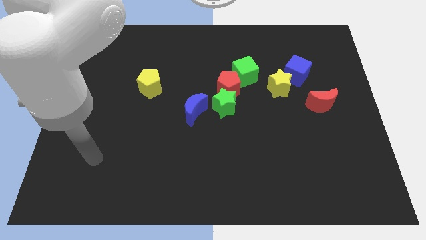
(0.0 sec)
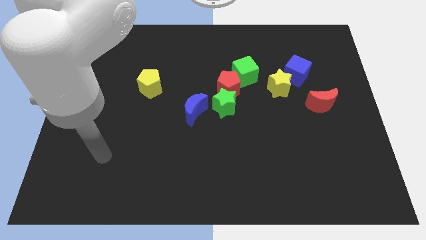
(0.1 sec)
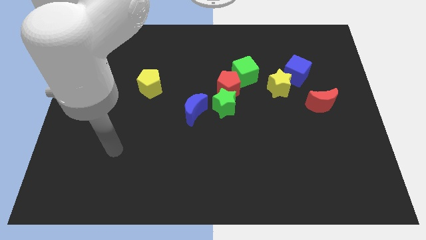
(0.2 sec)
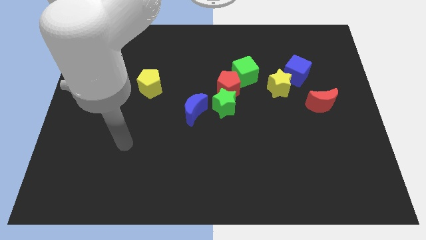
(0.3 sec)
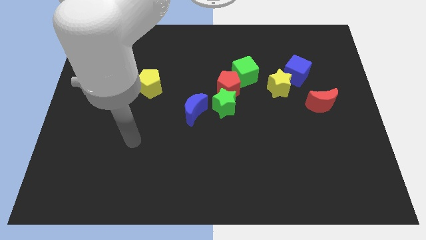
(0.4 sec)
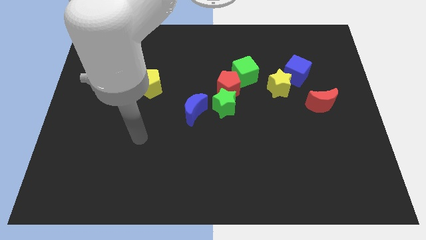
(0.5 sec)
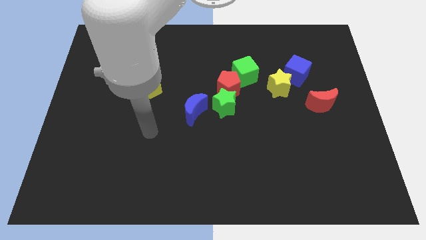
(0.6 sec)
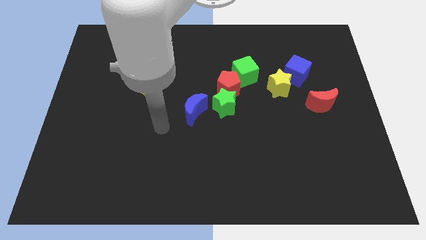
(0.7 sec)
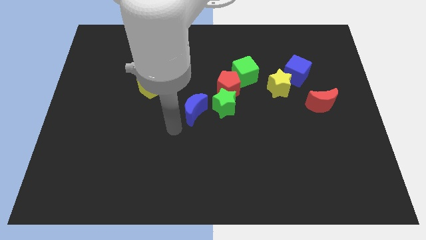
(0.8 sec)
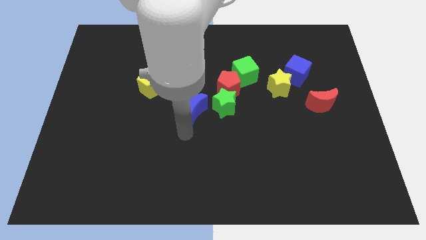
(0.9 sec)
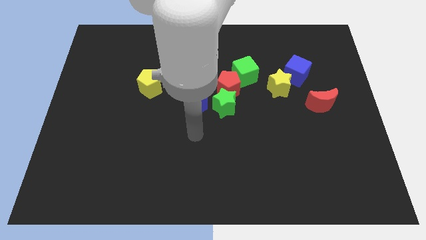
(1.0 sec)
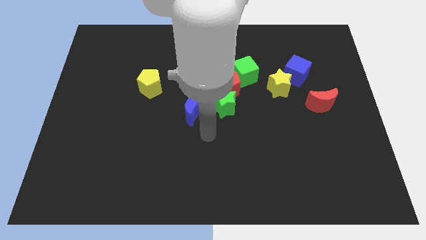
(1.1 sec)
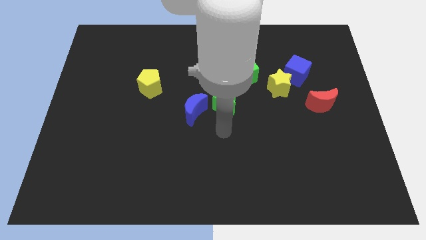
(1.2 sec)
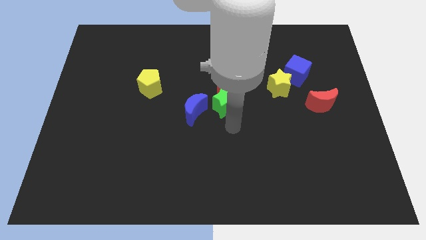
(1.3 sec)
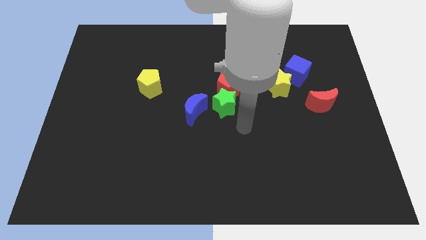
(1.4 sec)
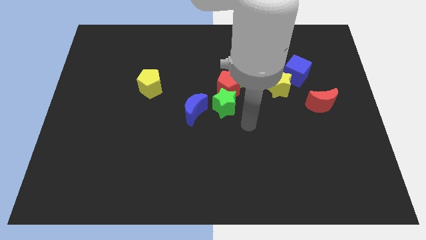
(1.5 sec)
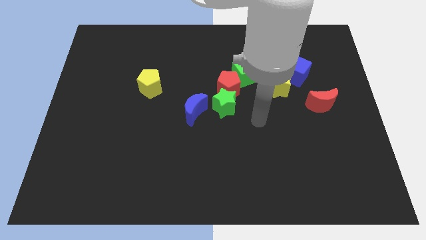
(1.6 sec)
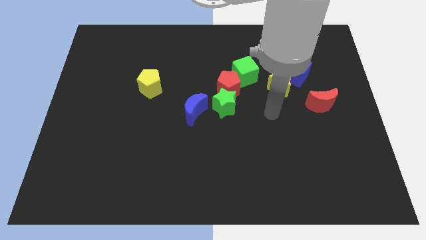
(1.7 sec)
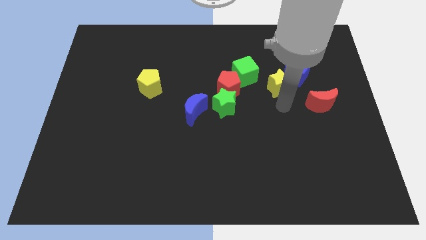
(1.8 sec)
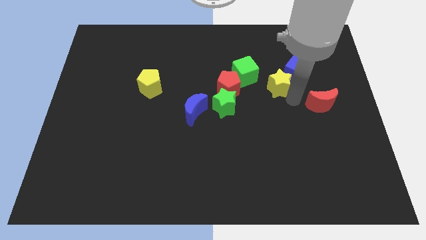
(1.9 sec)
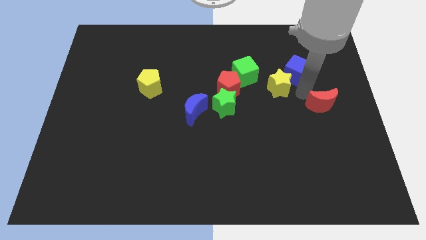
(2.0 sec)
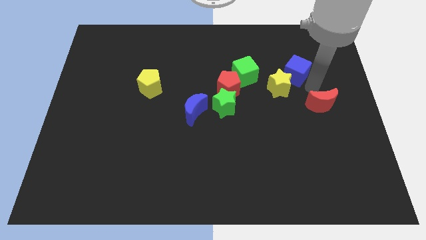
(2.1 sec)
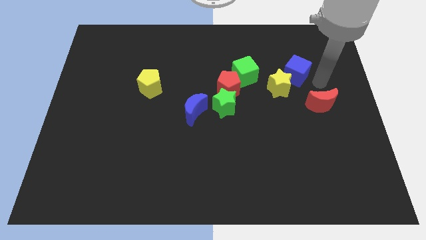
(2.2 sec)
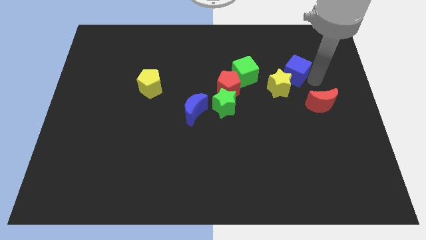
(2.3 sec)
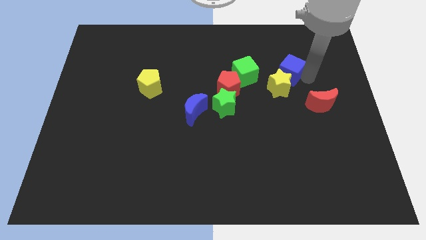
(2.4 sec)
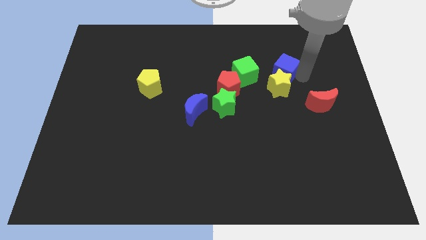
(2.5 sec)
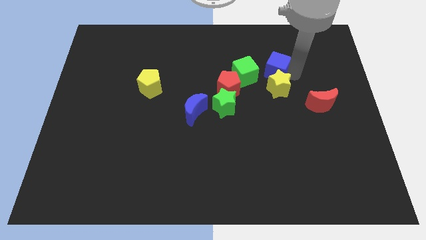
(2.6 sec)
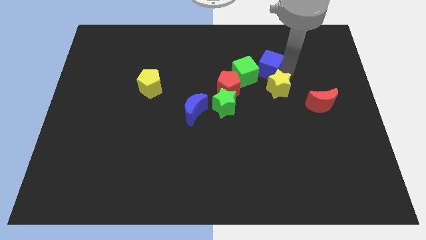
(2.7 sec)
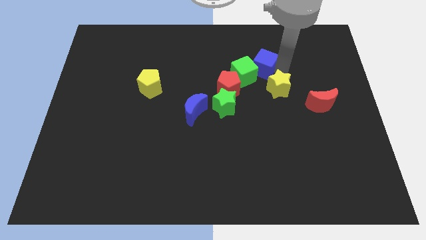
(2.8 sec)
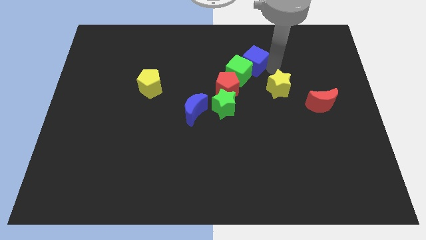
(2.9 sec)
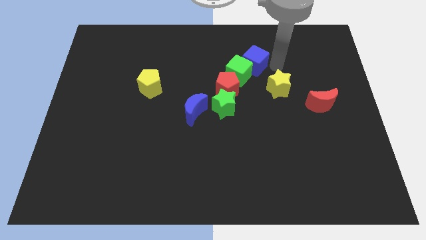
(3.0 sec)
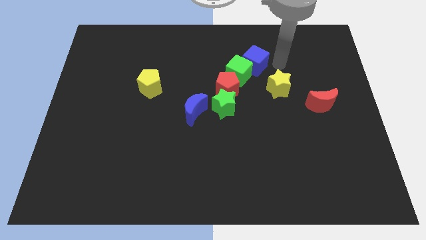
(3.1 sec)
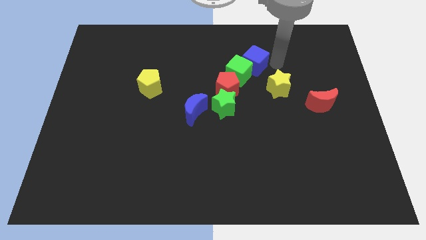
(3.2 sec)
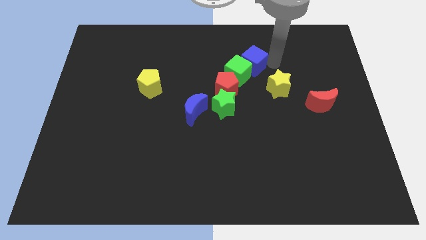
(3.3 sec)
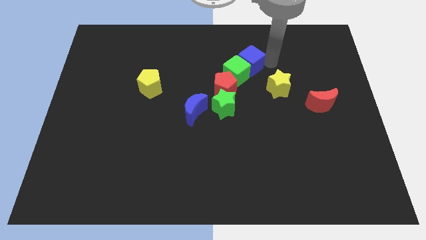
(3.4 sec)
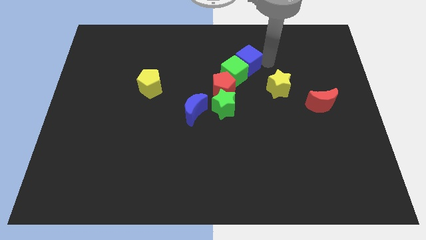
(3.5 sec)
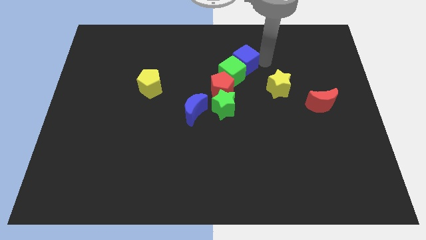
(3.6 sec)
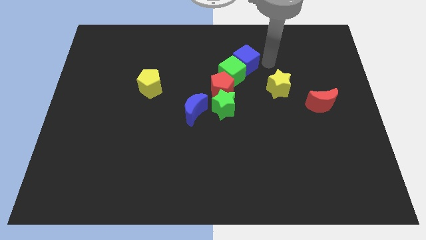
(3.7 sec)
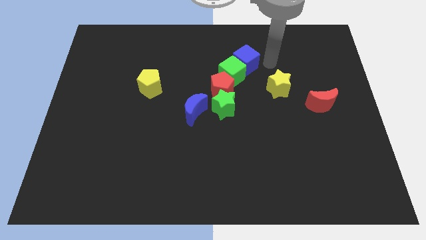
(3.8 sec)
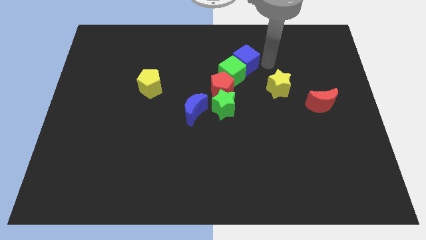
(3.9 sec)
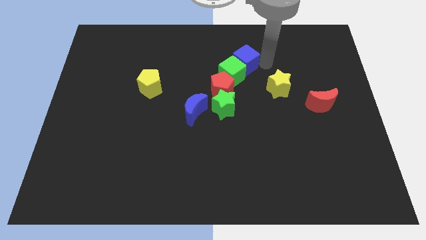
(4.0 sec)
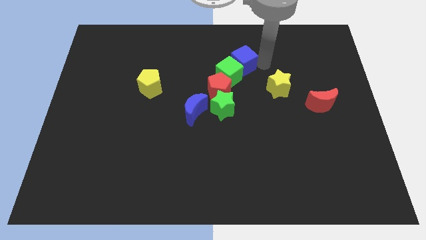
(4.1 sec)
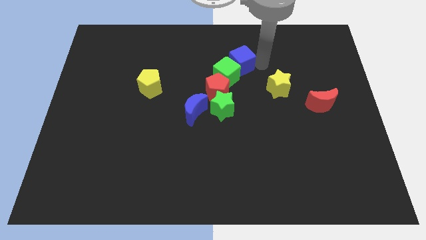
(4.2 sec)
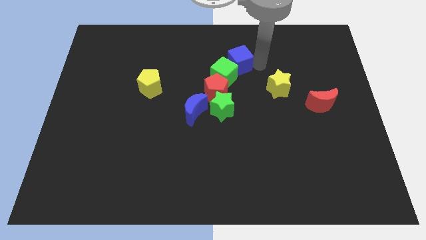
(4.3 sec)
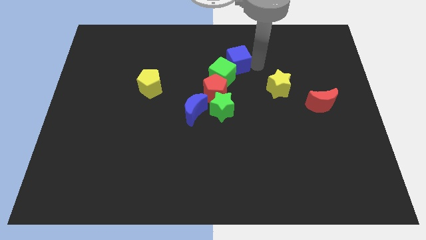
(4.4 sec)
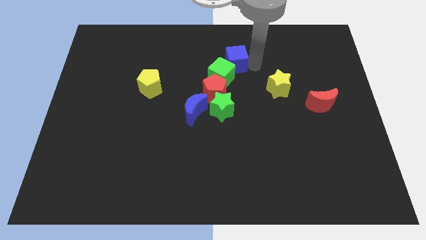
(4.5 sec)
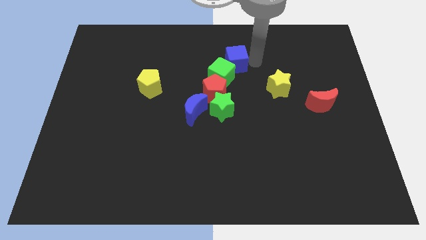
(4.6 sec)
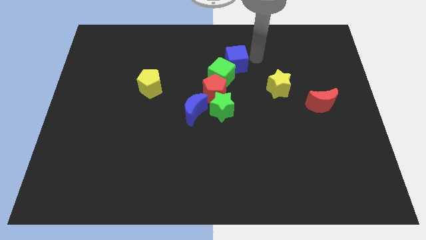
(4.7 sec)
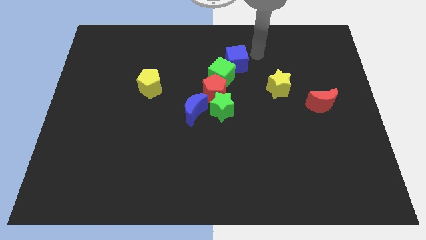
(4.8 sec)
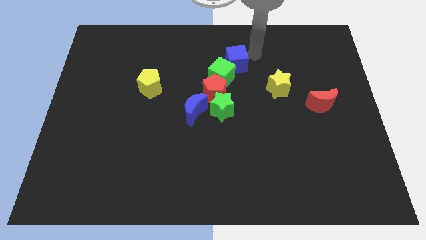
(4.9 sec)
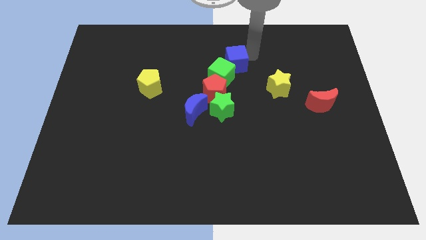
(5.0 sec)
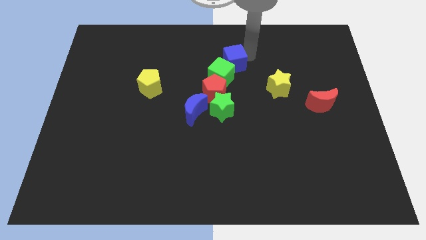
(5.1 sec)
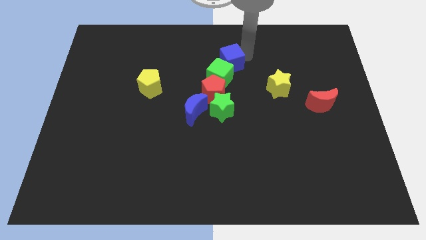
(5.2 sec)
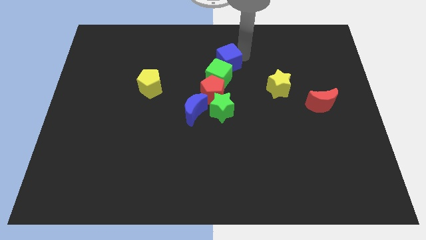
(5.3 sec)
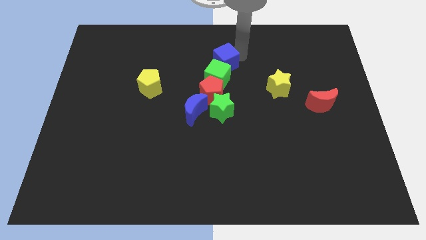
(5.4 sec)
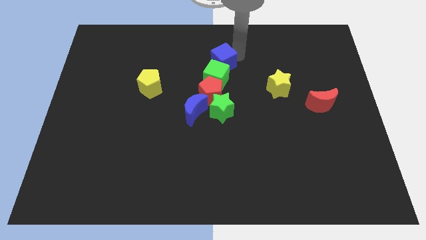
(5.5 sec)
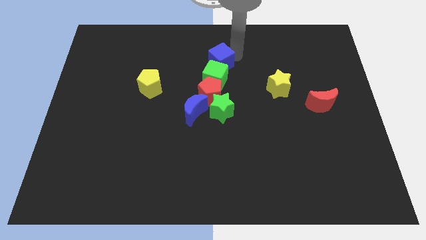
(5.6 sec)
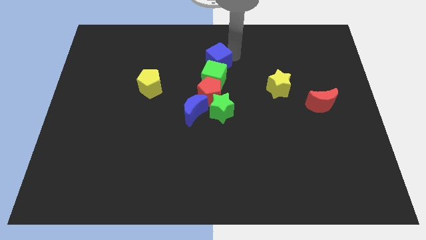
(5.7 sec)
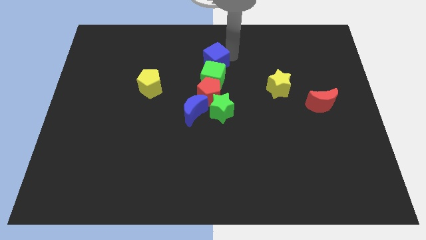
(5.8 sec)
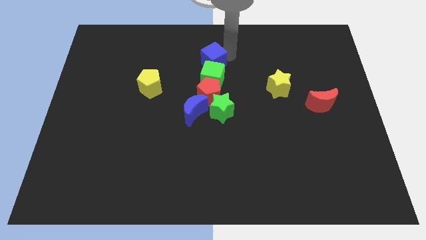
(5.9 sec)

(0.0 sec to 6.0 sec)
slide the blue cube left

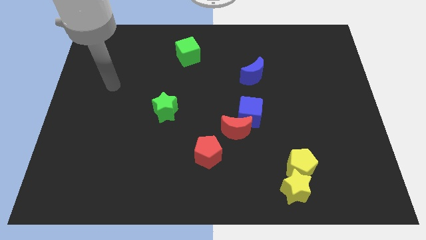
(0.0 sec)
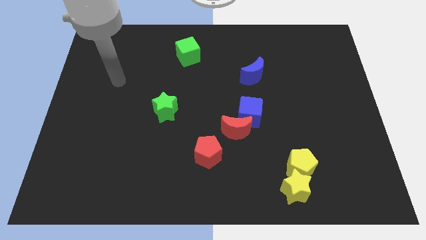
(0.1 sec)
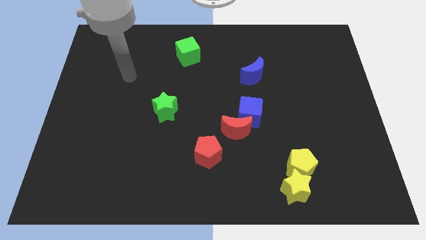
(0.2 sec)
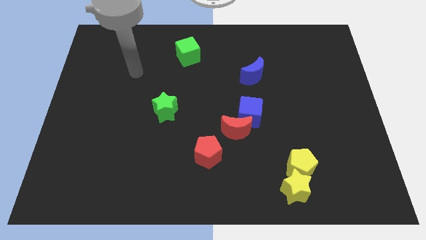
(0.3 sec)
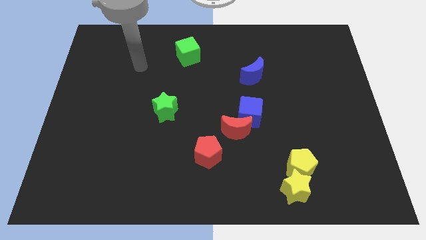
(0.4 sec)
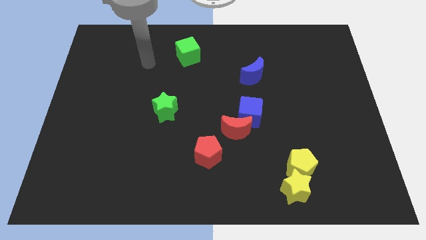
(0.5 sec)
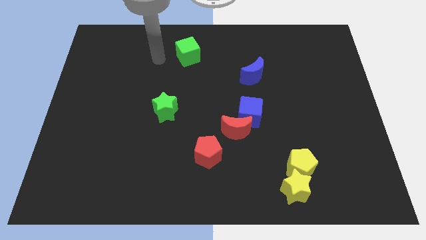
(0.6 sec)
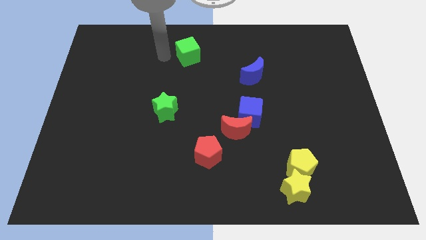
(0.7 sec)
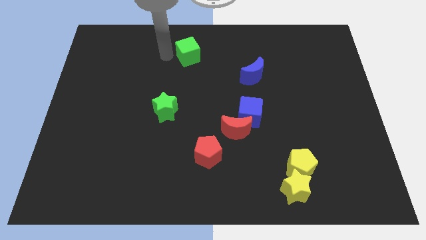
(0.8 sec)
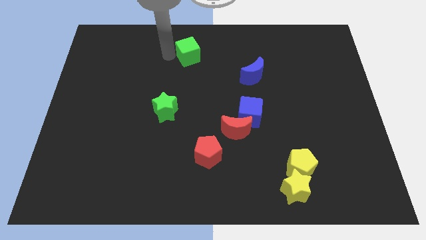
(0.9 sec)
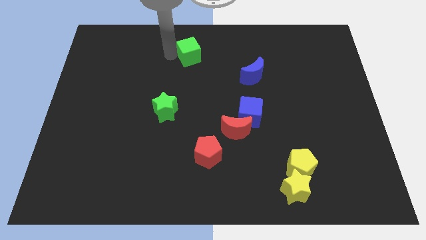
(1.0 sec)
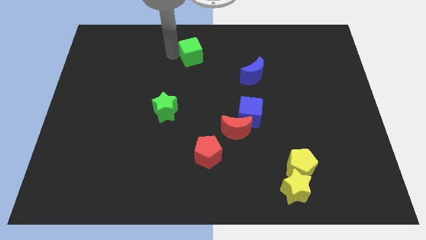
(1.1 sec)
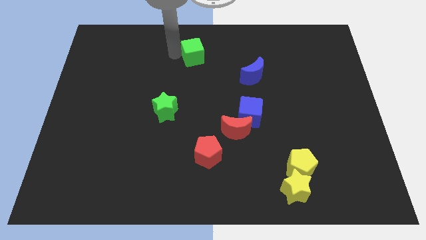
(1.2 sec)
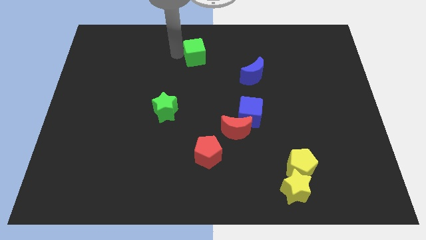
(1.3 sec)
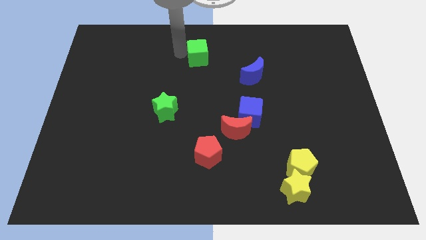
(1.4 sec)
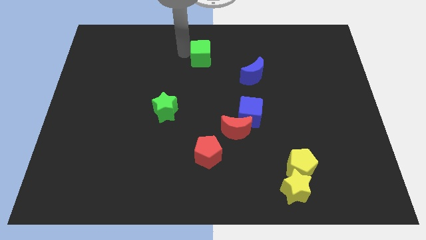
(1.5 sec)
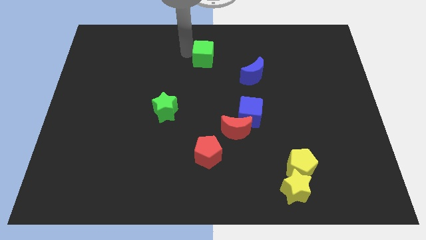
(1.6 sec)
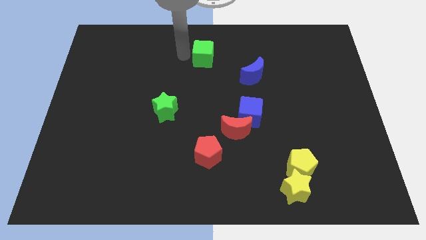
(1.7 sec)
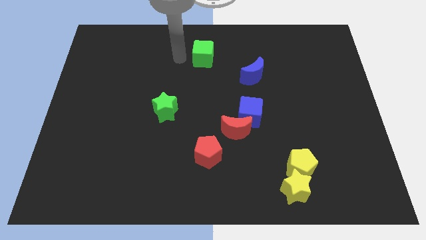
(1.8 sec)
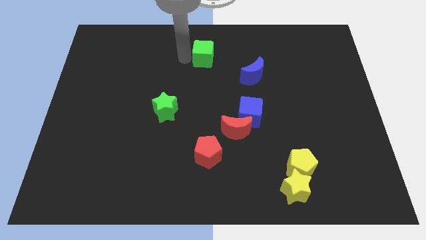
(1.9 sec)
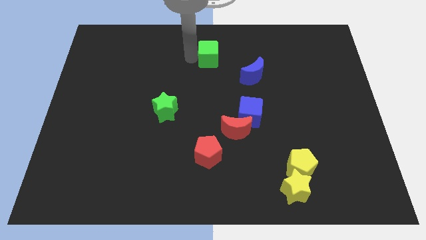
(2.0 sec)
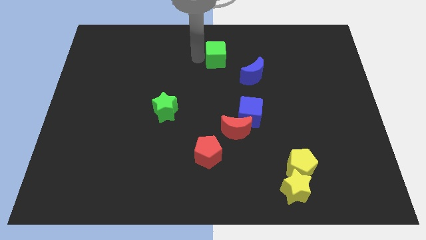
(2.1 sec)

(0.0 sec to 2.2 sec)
push the green cube to the right a little
